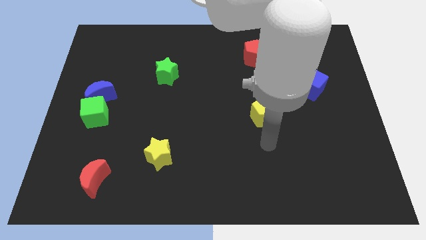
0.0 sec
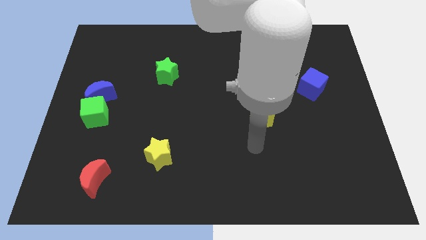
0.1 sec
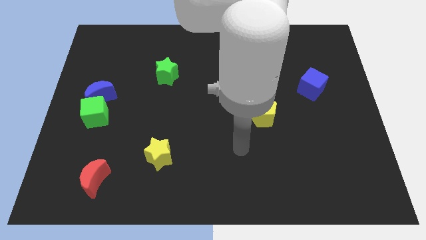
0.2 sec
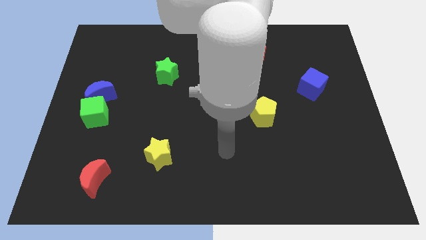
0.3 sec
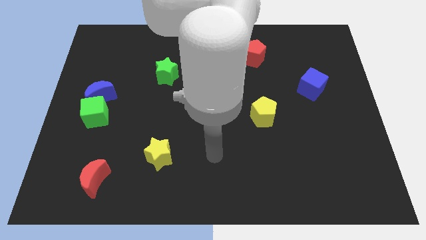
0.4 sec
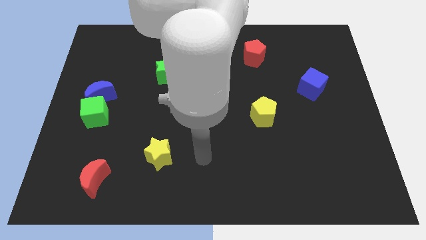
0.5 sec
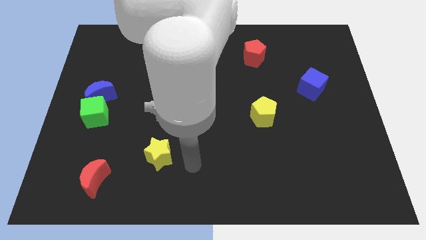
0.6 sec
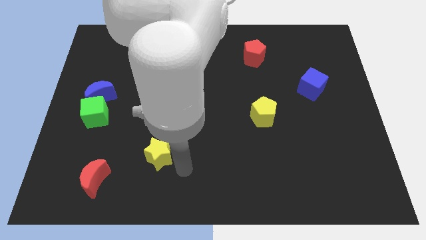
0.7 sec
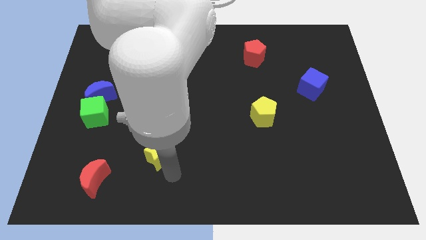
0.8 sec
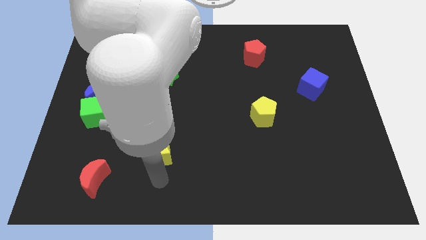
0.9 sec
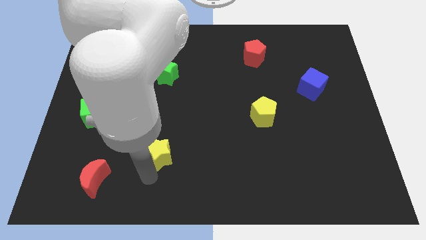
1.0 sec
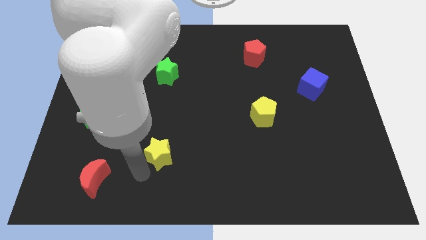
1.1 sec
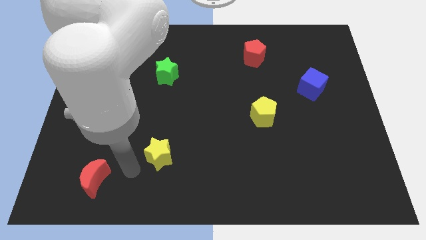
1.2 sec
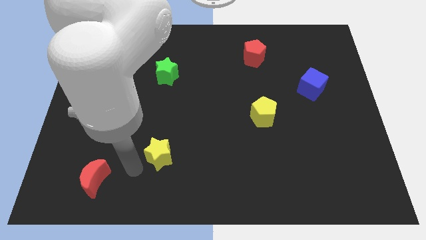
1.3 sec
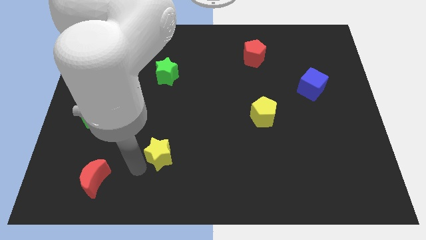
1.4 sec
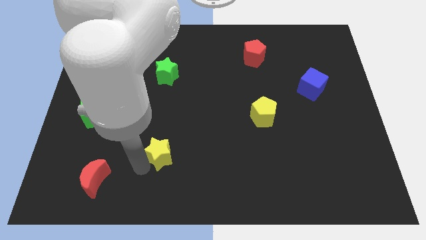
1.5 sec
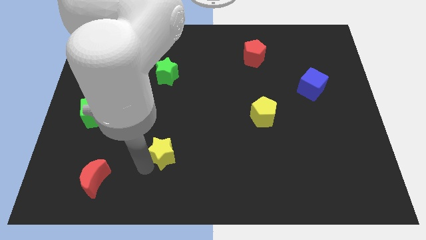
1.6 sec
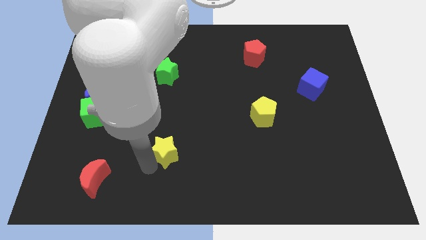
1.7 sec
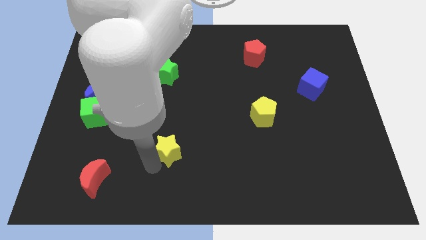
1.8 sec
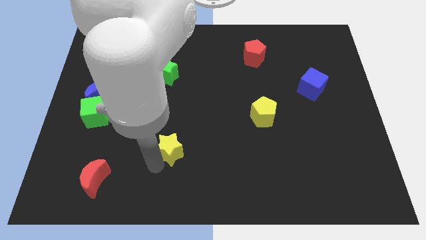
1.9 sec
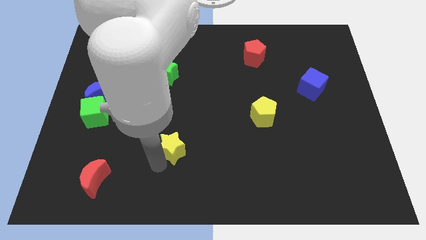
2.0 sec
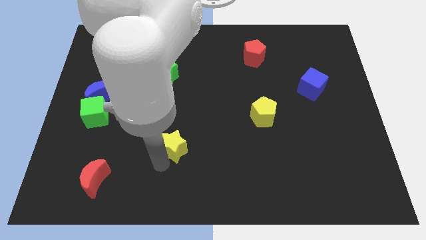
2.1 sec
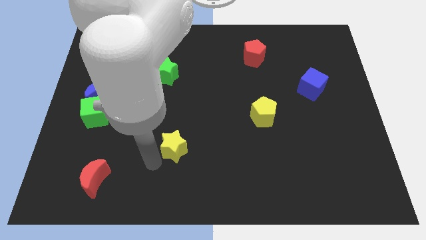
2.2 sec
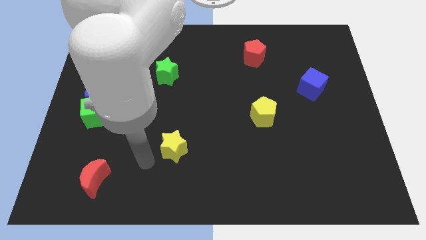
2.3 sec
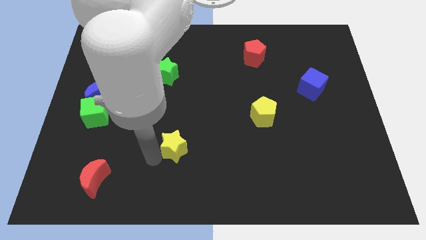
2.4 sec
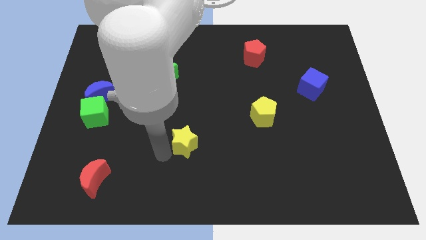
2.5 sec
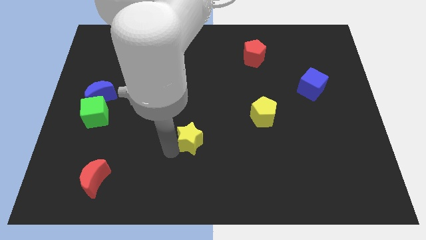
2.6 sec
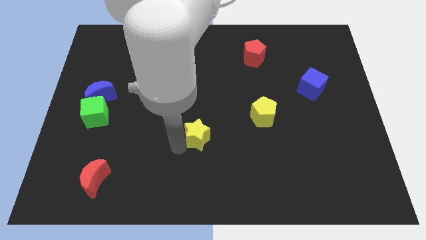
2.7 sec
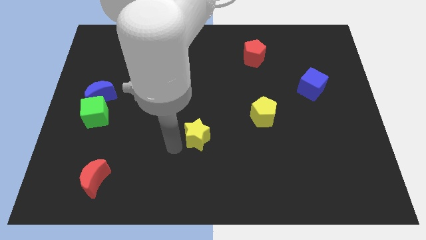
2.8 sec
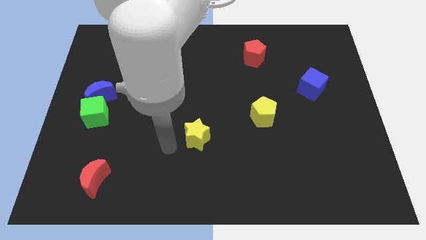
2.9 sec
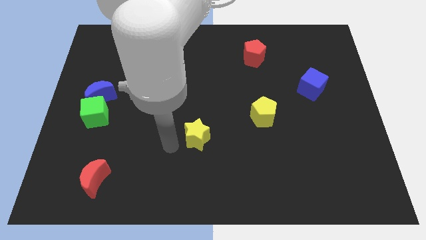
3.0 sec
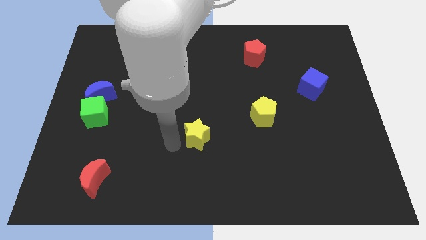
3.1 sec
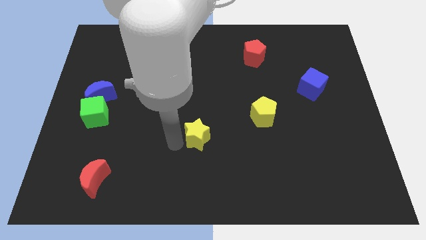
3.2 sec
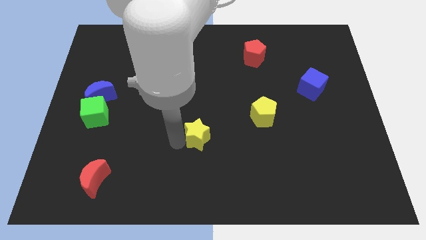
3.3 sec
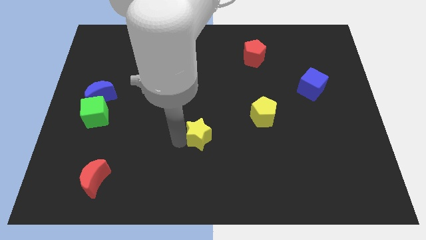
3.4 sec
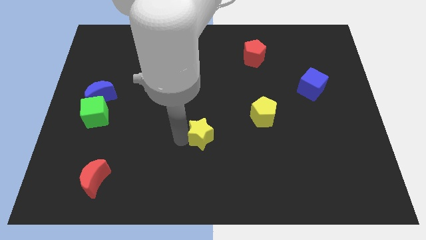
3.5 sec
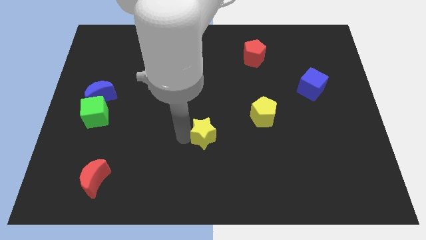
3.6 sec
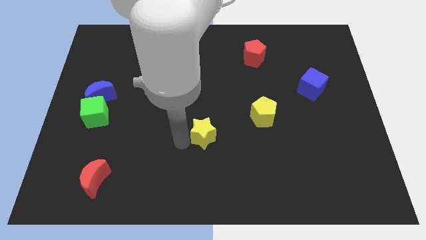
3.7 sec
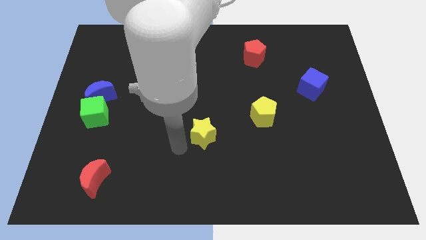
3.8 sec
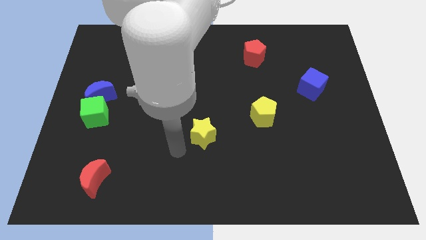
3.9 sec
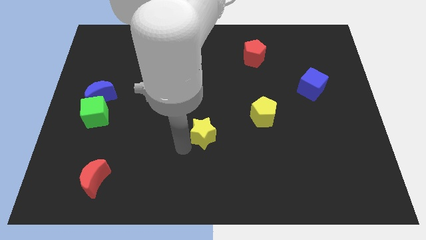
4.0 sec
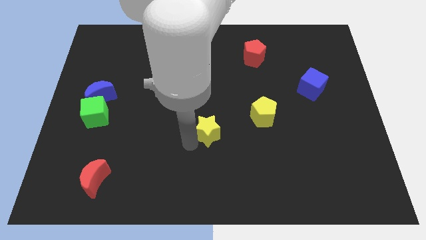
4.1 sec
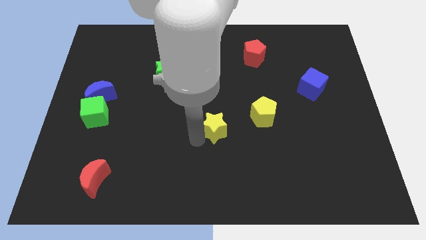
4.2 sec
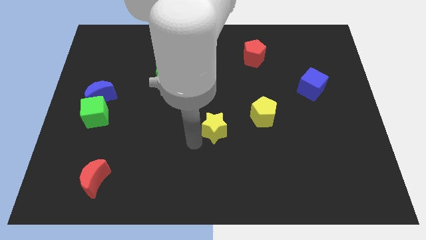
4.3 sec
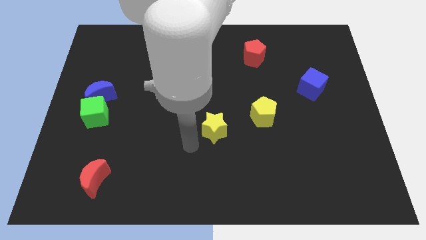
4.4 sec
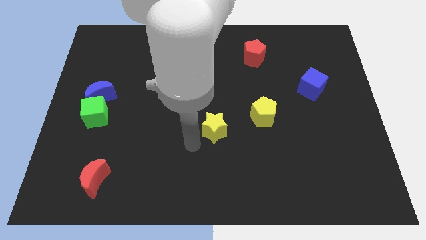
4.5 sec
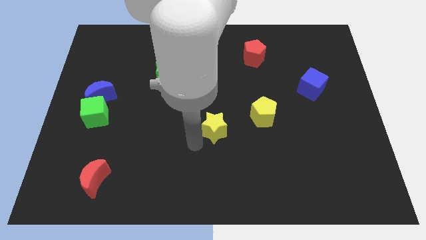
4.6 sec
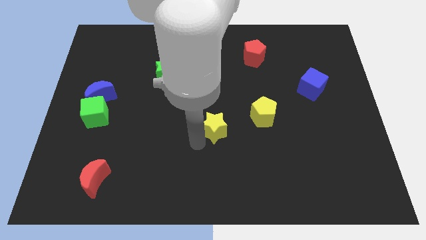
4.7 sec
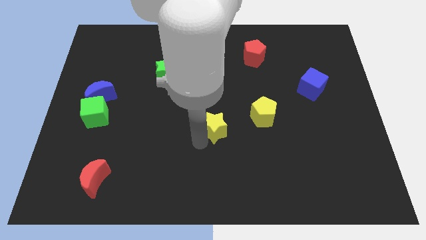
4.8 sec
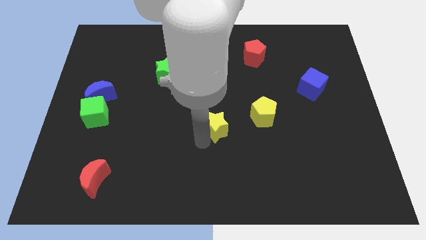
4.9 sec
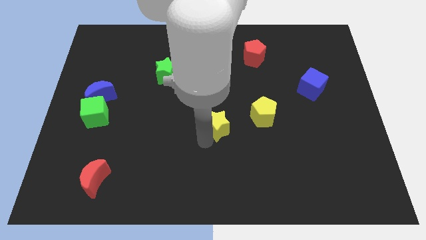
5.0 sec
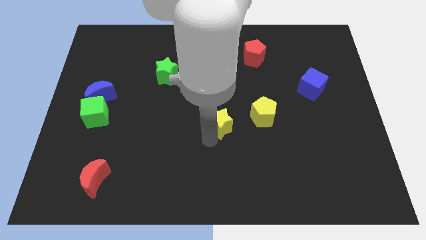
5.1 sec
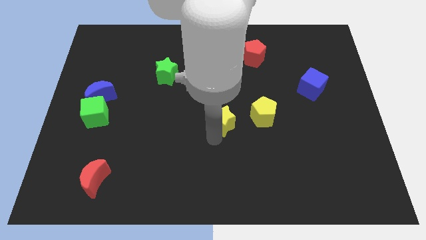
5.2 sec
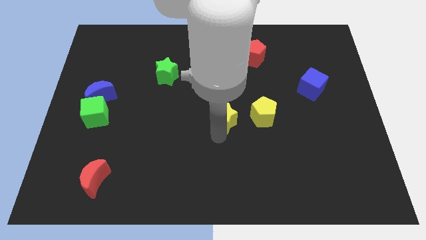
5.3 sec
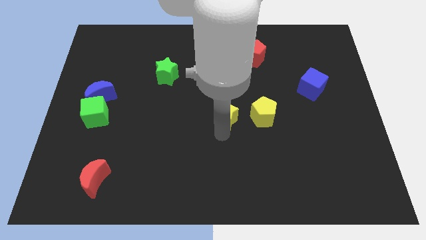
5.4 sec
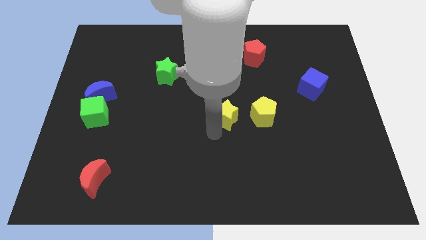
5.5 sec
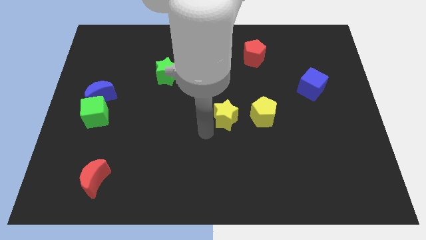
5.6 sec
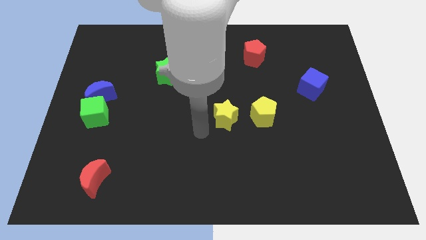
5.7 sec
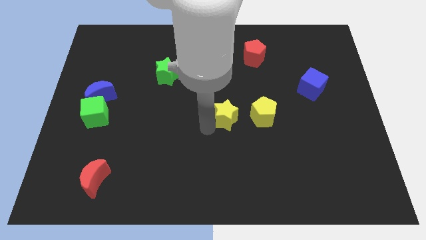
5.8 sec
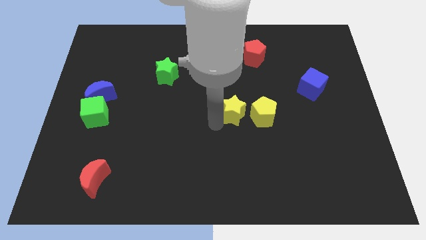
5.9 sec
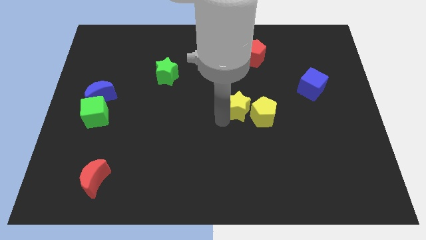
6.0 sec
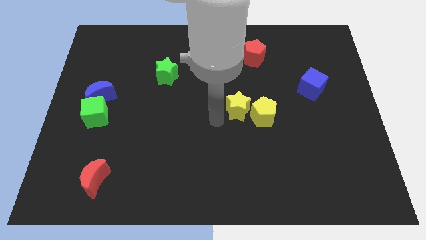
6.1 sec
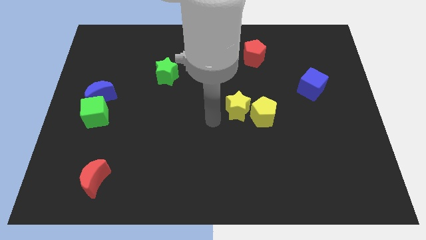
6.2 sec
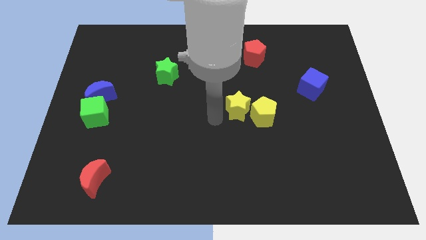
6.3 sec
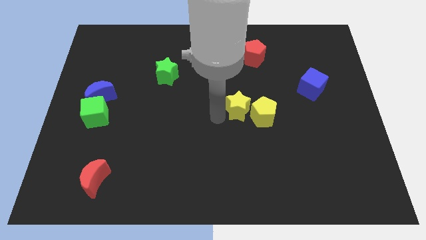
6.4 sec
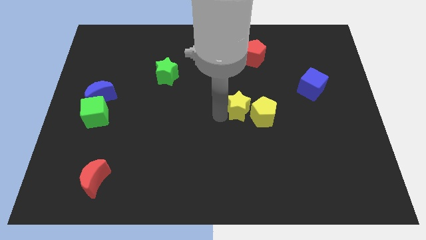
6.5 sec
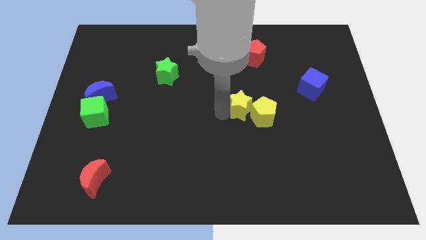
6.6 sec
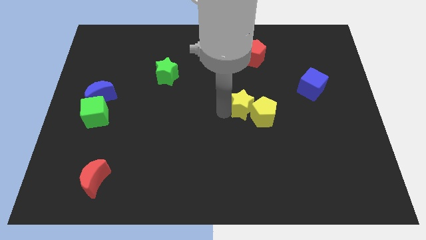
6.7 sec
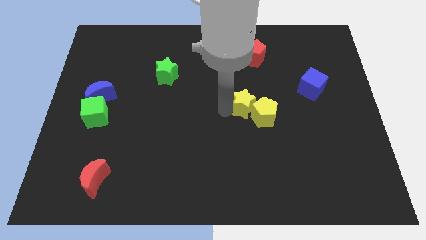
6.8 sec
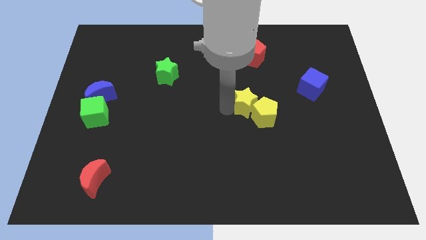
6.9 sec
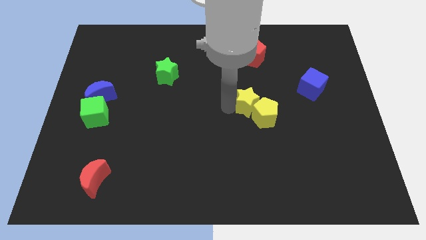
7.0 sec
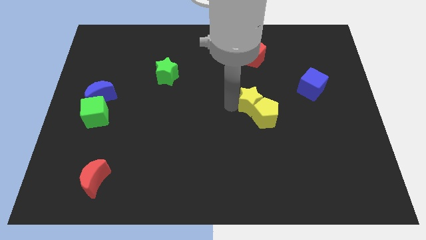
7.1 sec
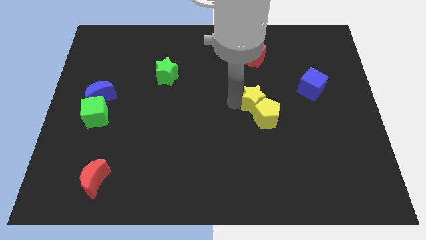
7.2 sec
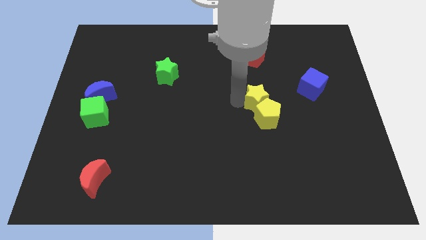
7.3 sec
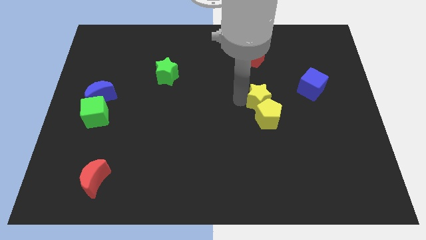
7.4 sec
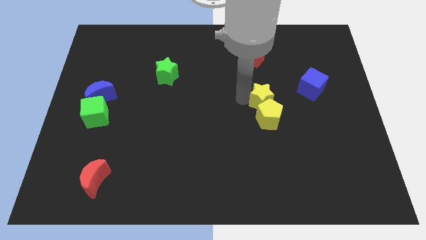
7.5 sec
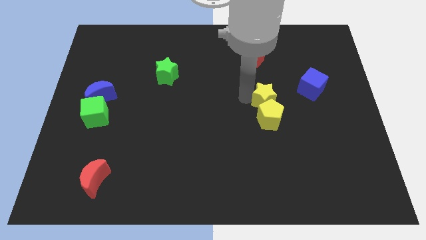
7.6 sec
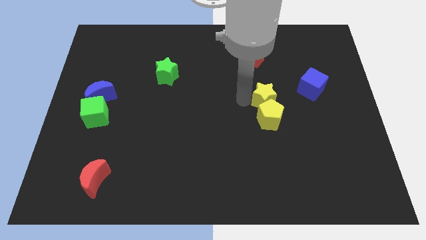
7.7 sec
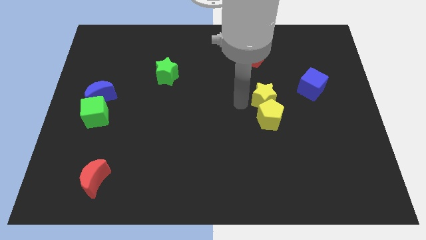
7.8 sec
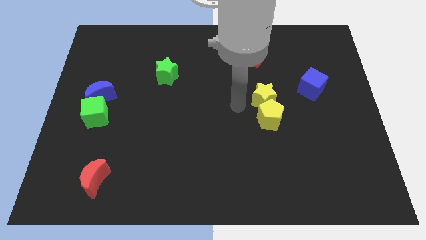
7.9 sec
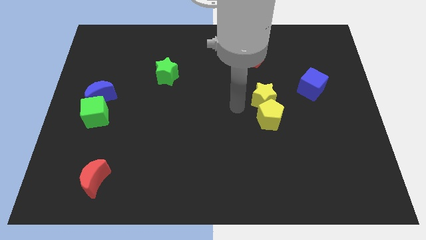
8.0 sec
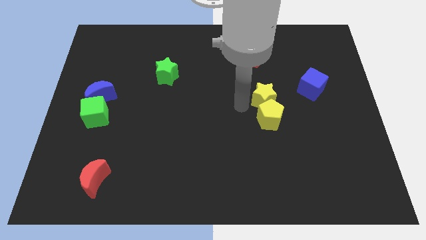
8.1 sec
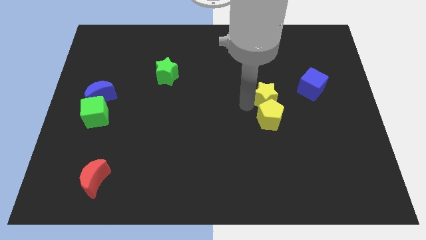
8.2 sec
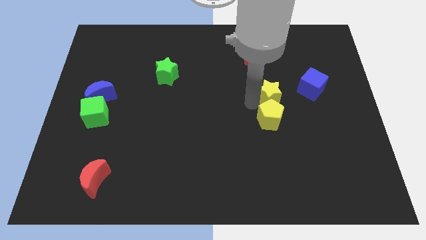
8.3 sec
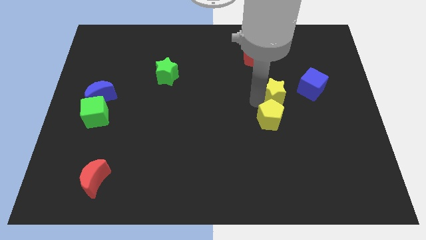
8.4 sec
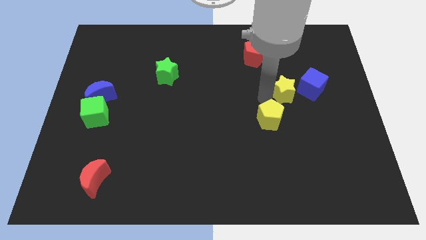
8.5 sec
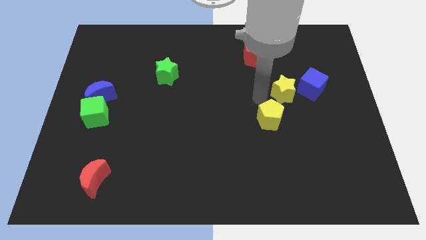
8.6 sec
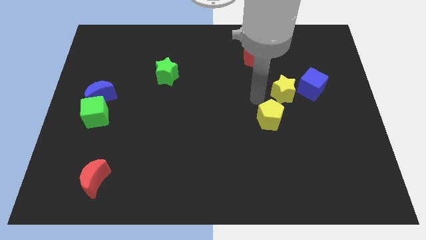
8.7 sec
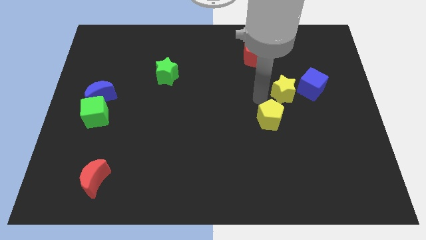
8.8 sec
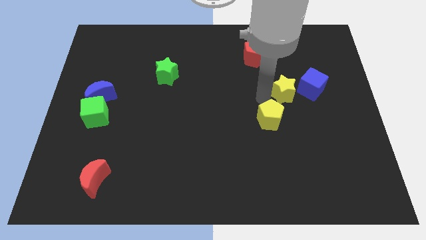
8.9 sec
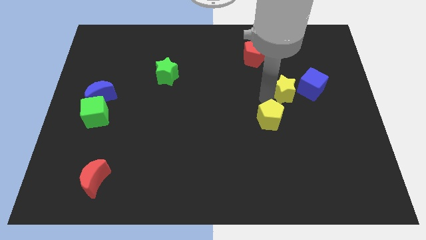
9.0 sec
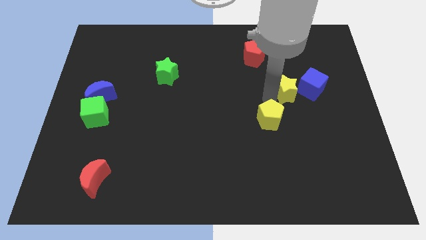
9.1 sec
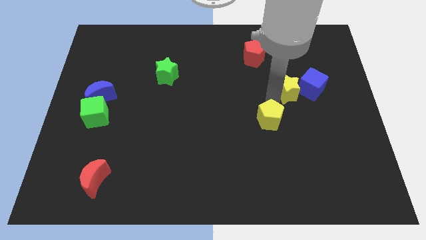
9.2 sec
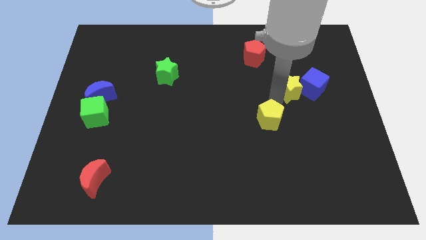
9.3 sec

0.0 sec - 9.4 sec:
slide the yellow star to the blue cube
